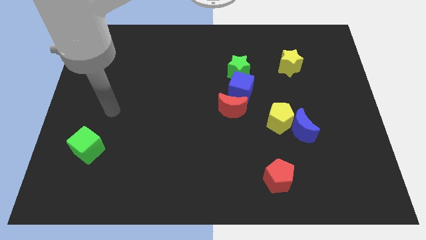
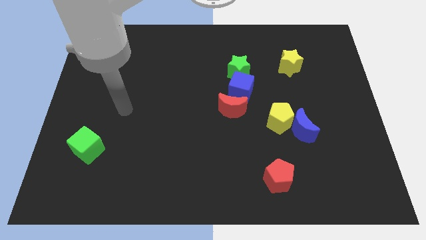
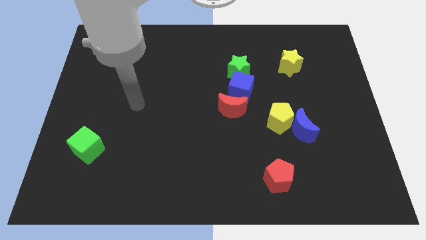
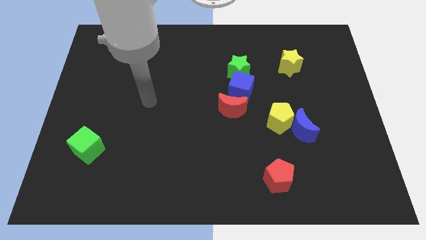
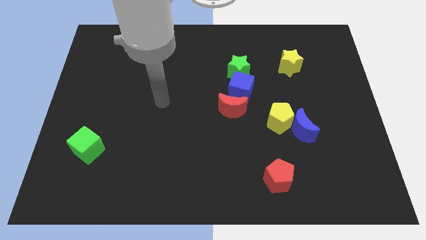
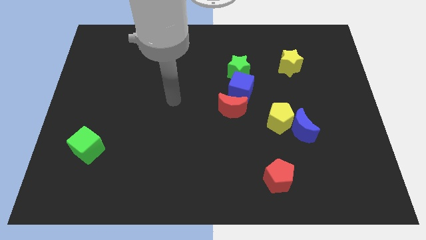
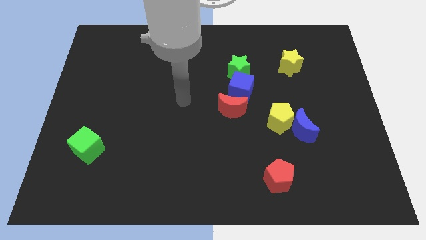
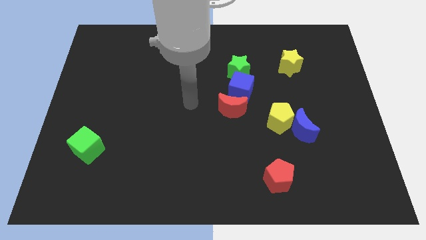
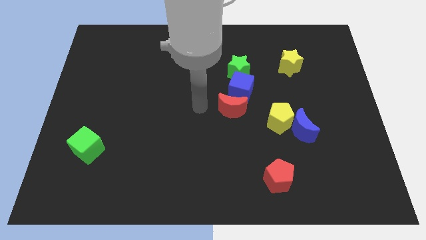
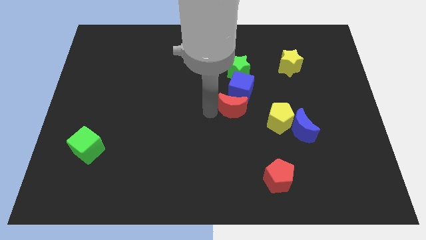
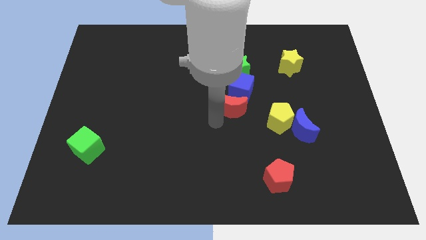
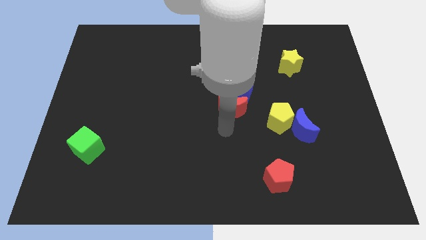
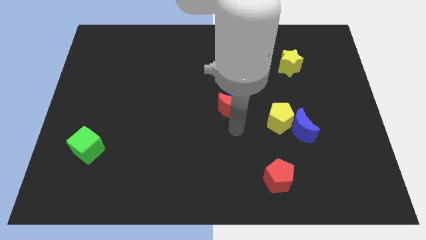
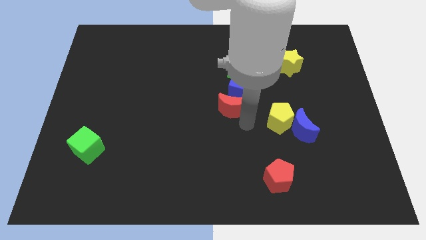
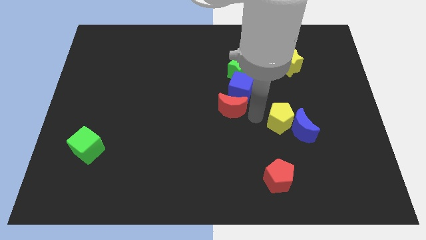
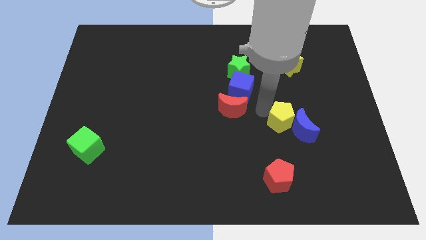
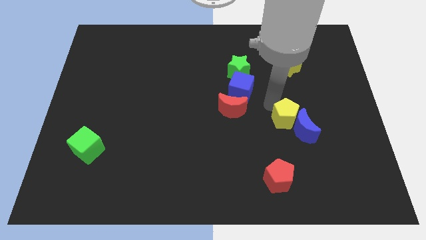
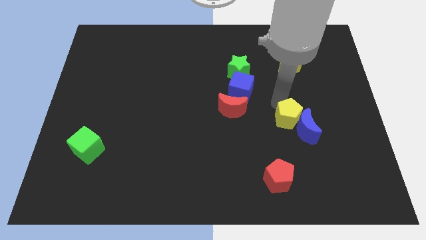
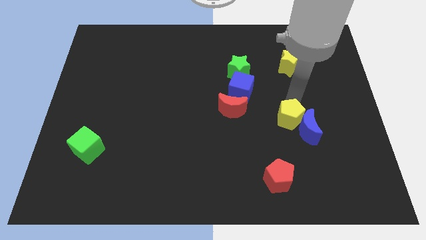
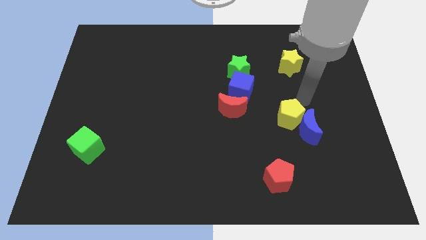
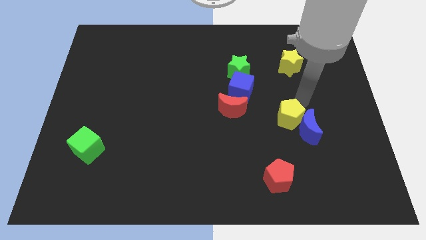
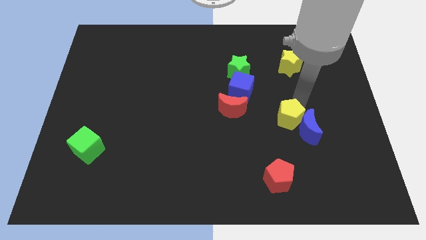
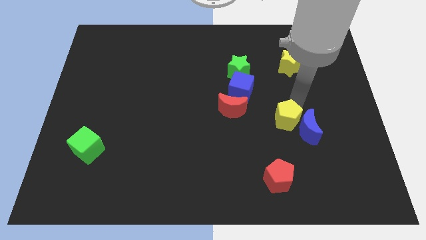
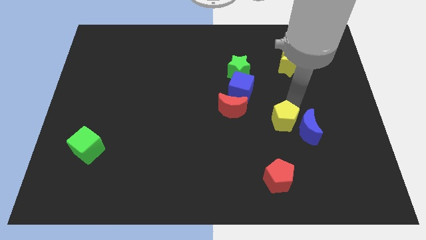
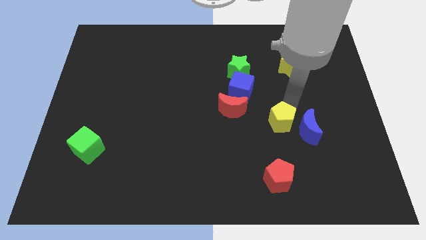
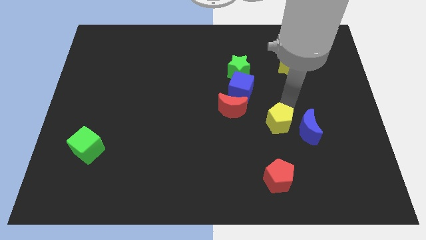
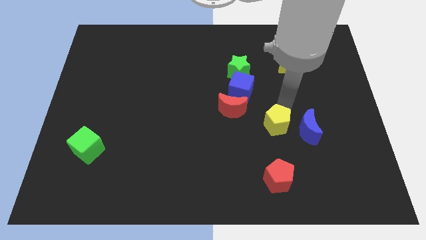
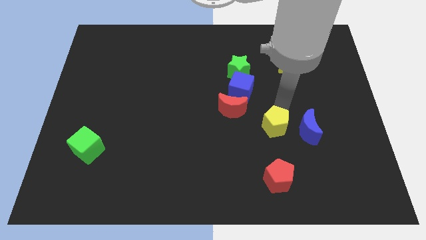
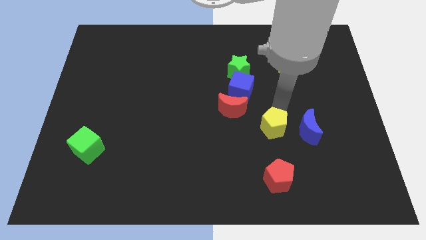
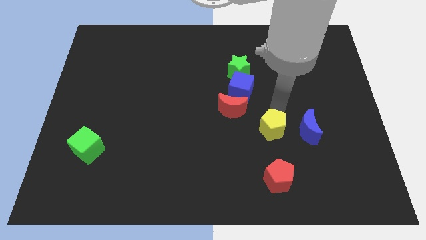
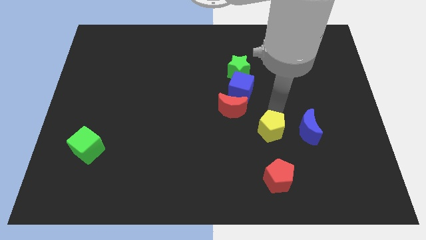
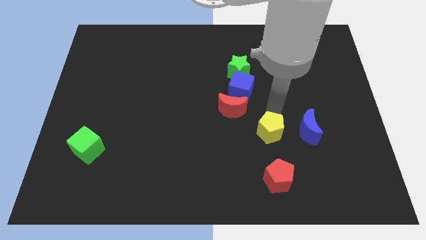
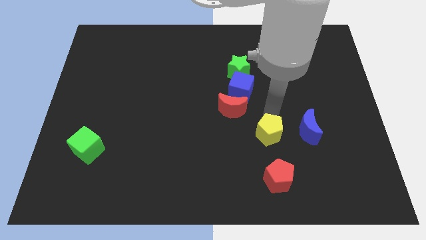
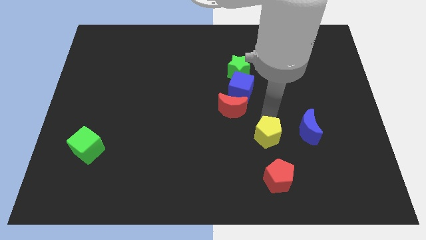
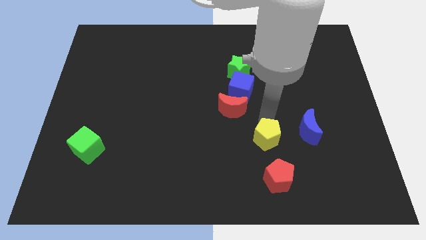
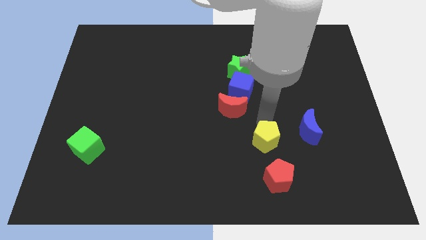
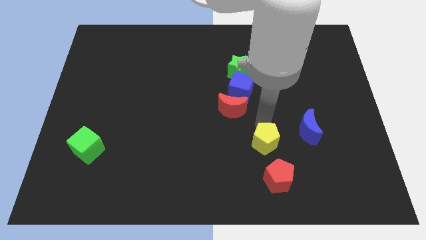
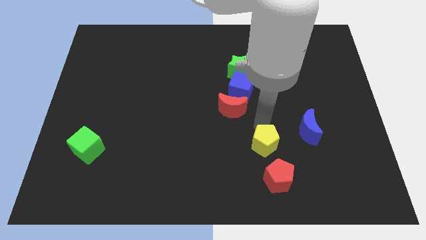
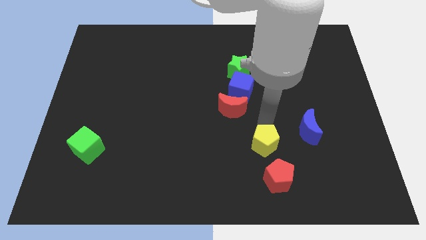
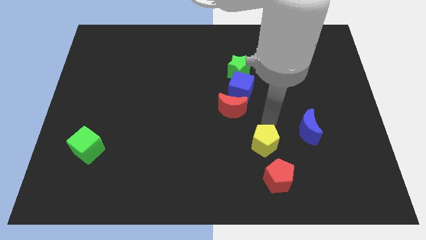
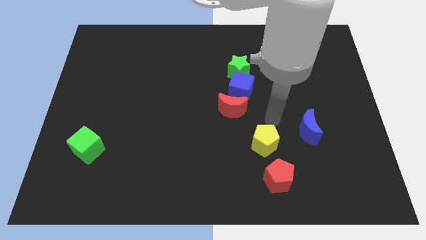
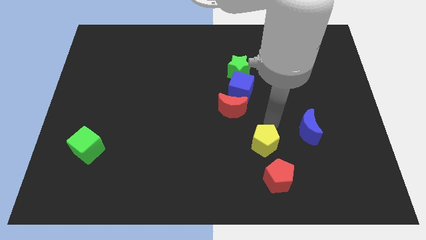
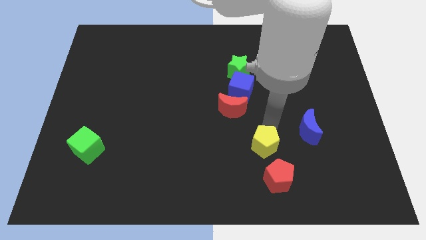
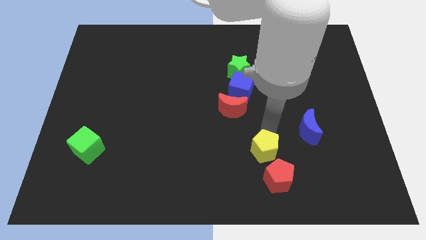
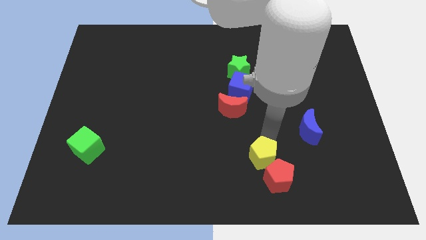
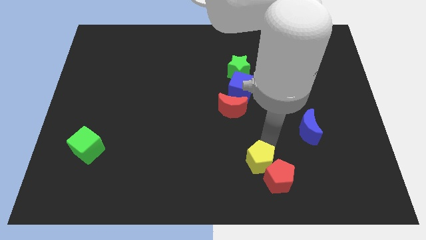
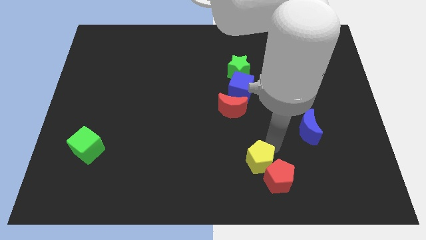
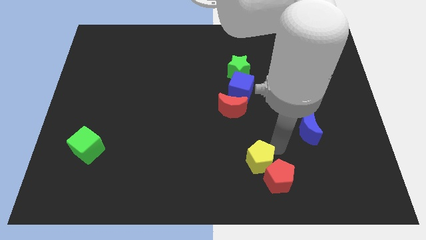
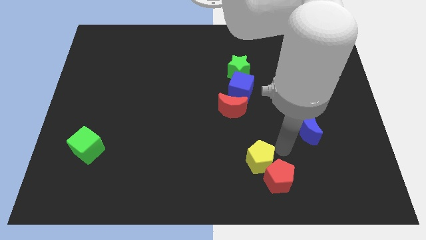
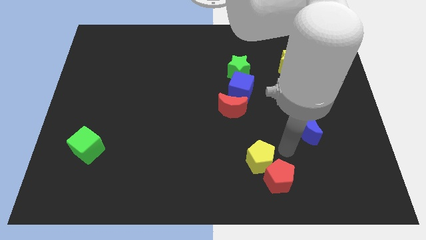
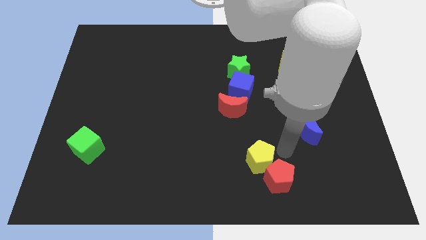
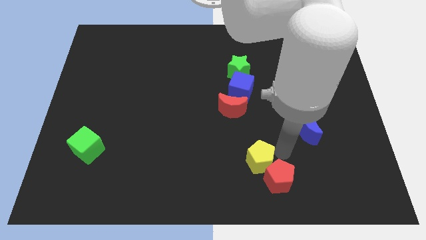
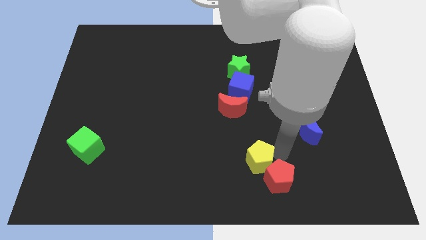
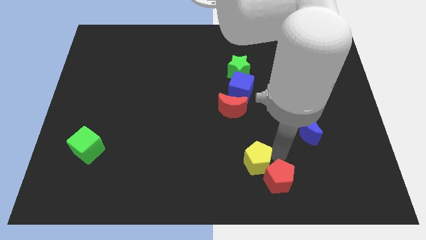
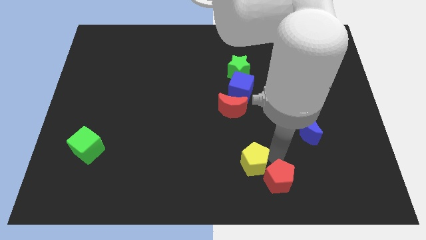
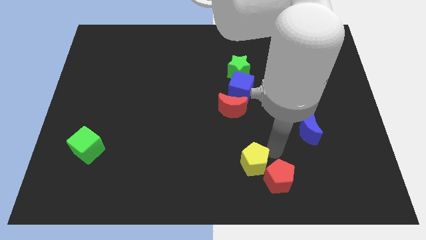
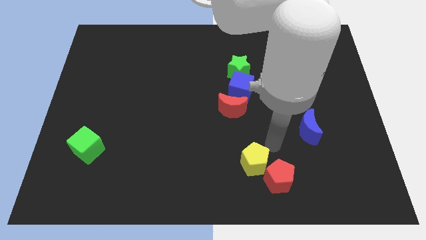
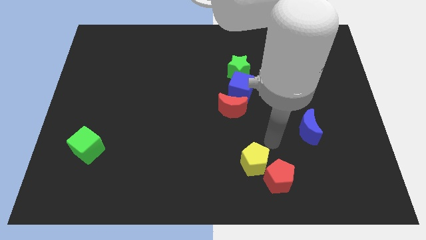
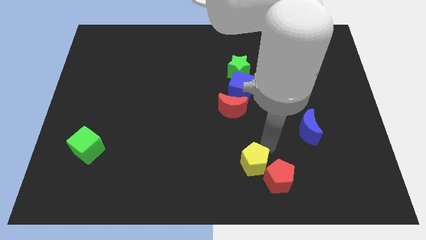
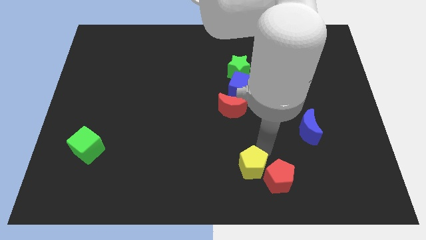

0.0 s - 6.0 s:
put the yellow pentagon to the bottom side

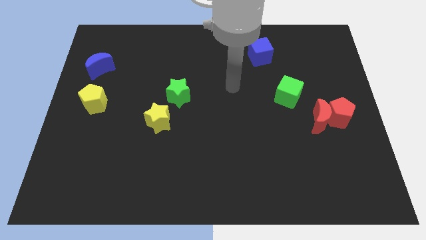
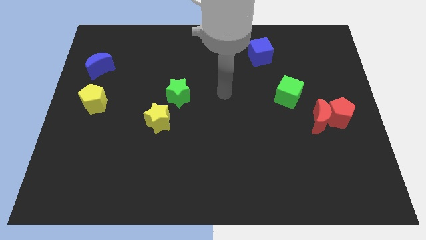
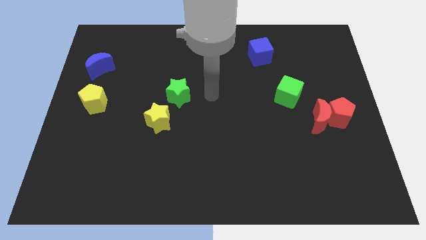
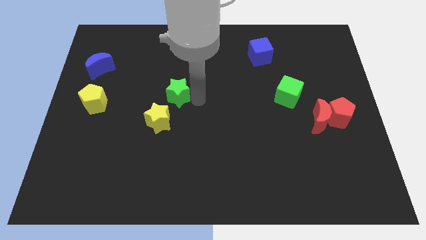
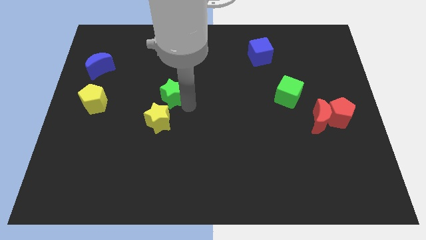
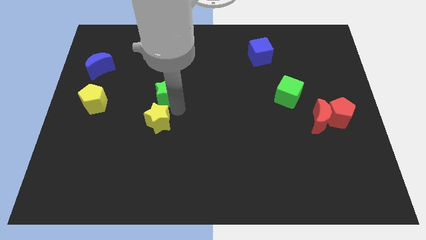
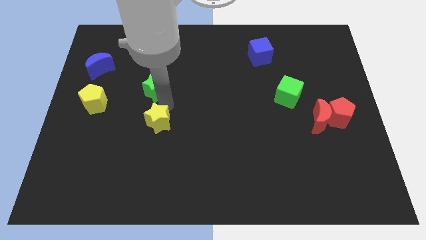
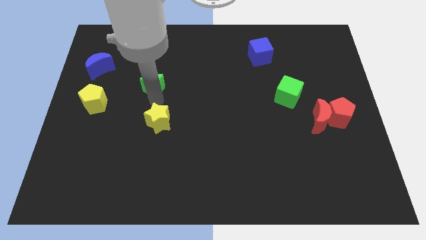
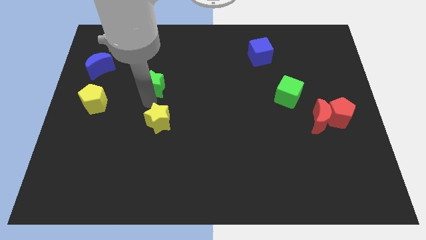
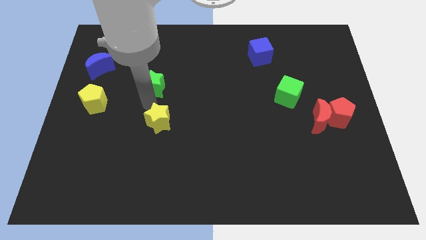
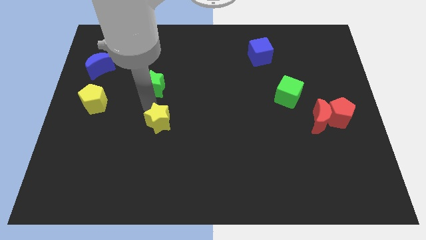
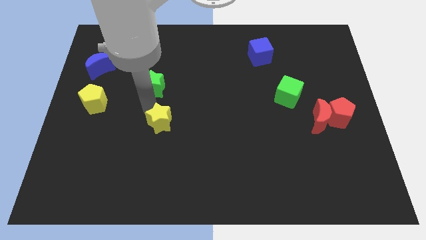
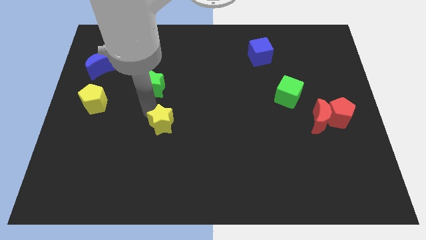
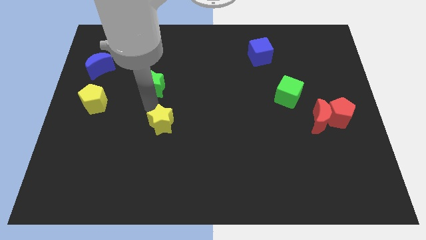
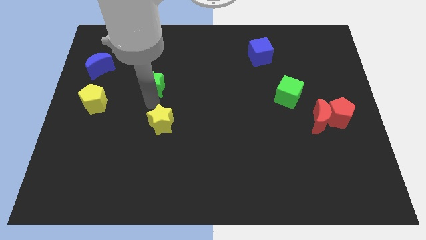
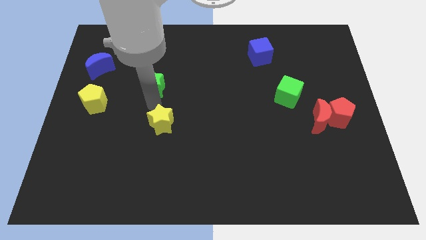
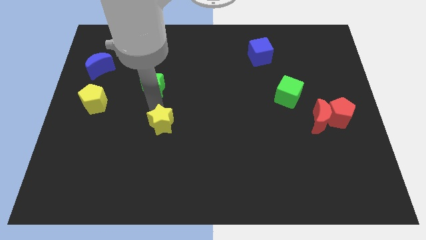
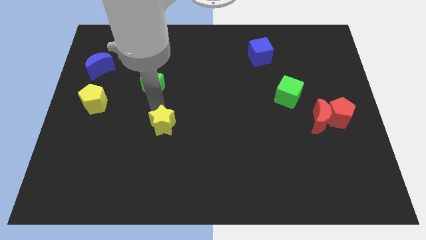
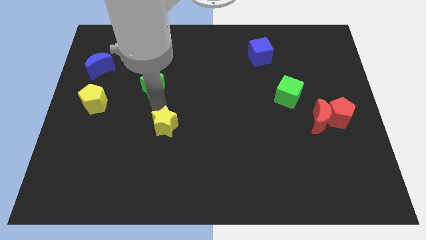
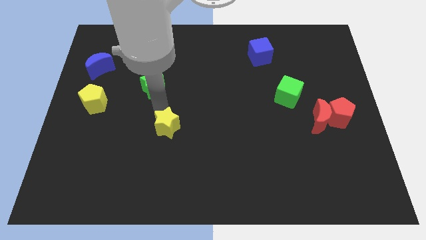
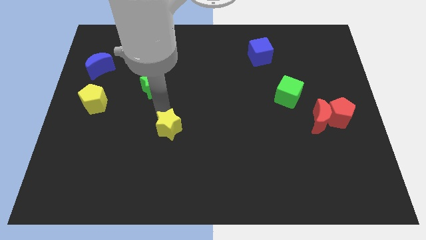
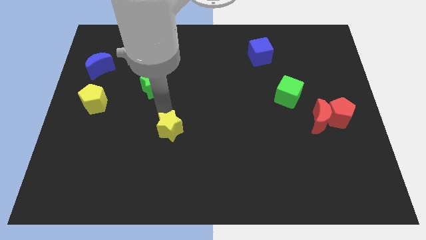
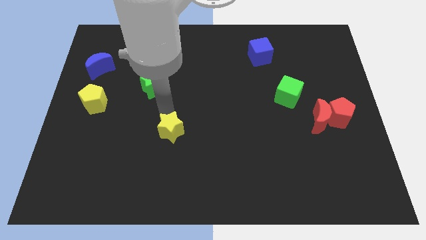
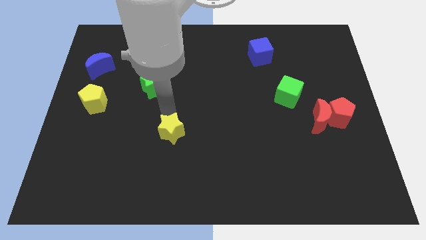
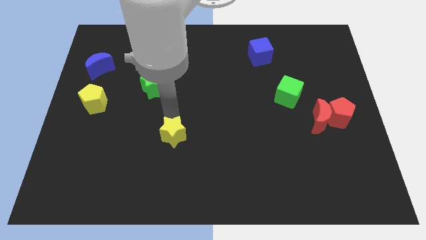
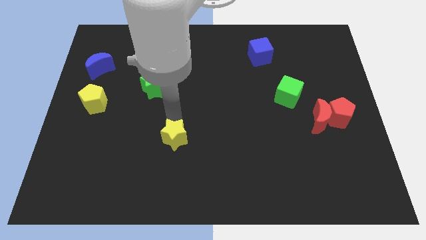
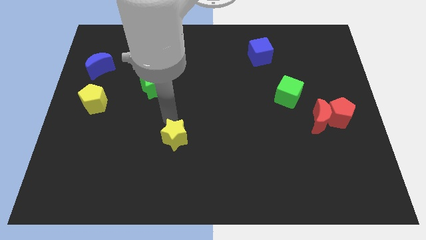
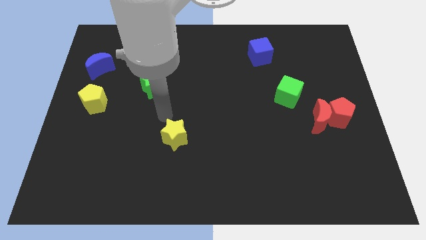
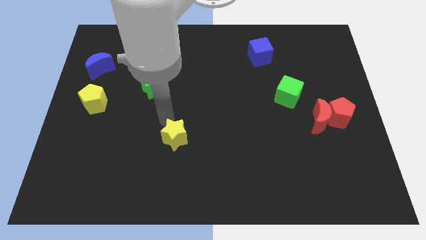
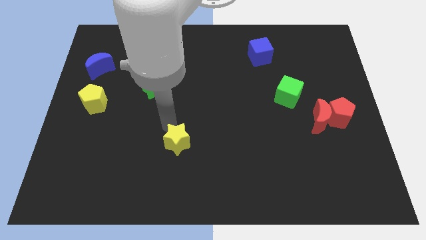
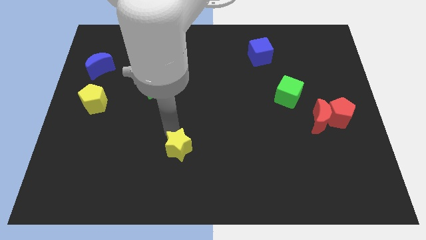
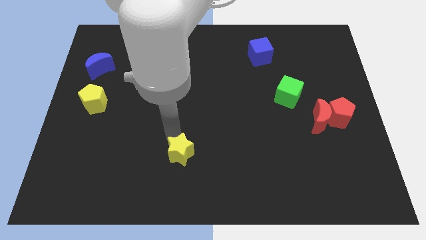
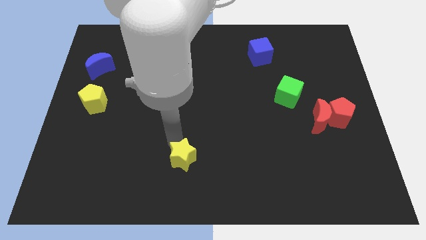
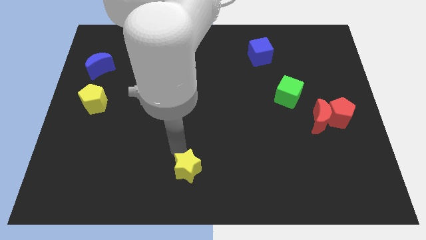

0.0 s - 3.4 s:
move the yellow star to the bottom side
